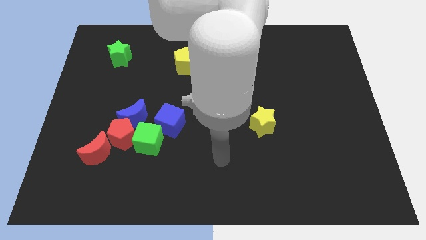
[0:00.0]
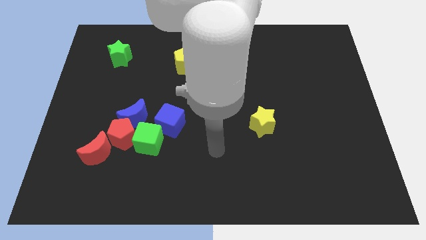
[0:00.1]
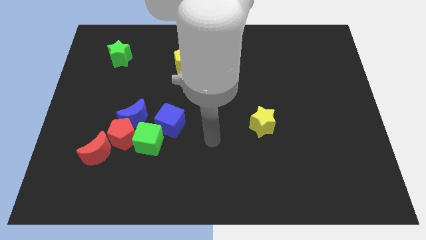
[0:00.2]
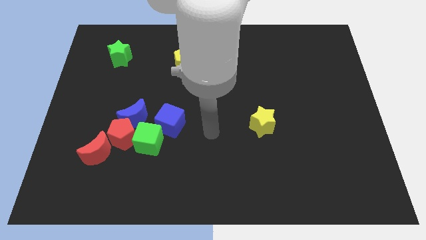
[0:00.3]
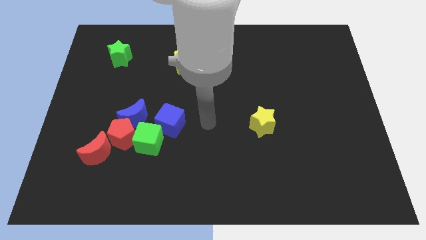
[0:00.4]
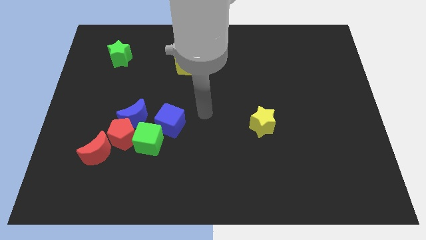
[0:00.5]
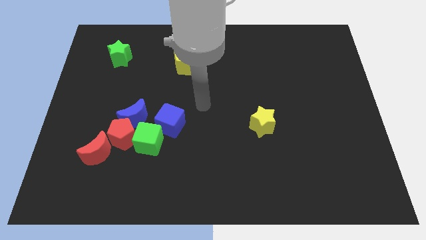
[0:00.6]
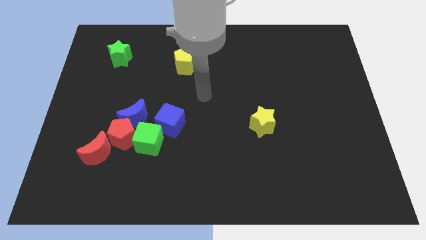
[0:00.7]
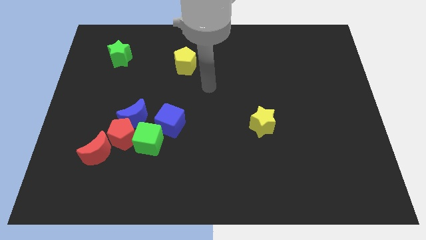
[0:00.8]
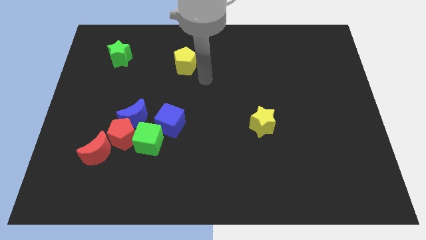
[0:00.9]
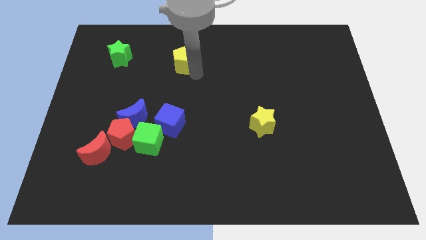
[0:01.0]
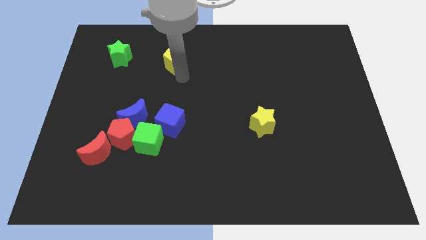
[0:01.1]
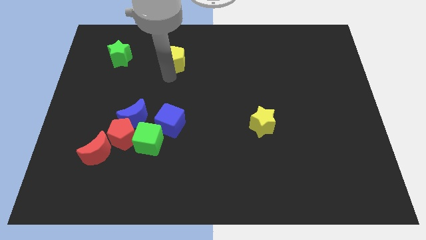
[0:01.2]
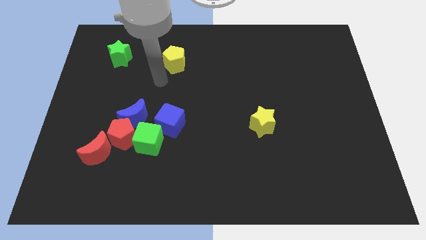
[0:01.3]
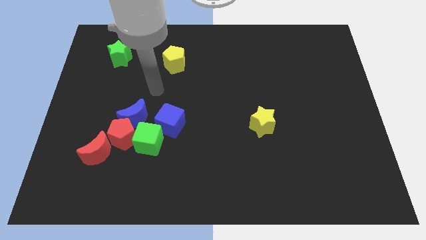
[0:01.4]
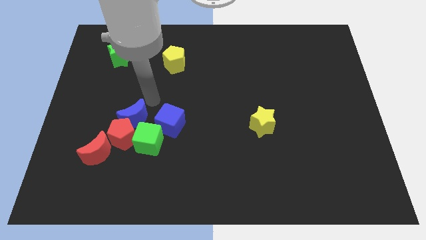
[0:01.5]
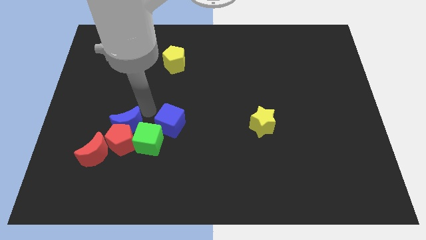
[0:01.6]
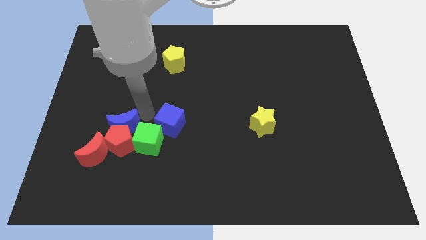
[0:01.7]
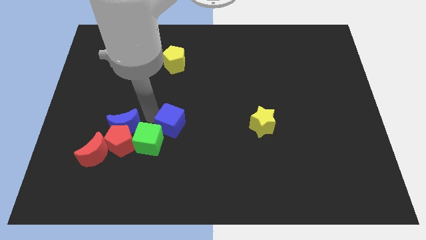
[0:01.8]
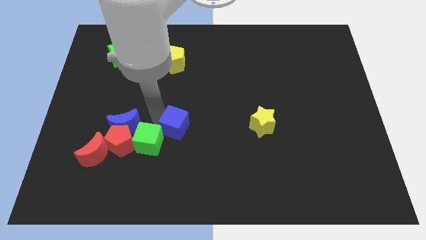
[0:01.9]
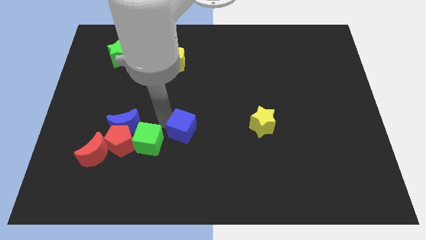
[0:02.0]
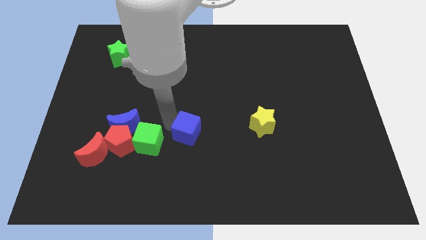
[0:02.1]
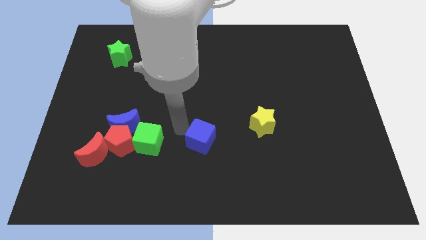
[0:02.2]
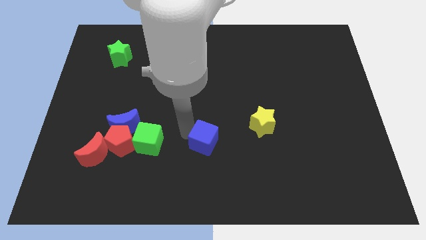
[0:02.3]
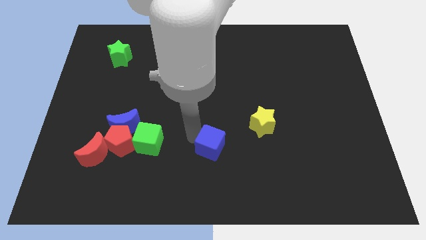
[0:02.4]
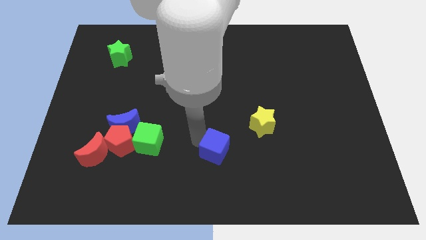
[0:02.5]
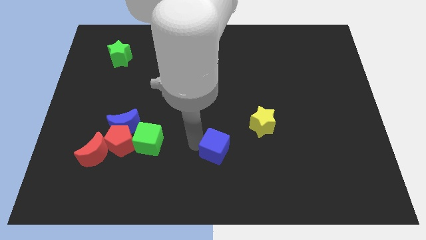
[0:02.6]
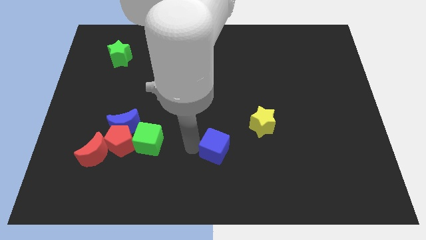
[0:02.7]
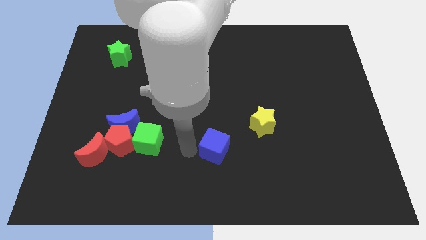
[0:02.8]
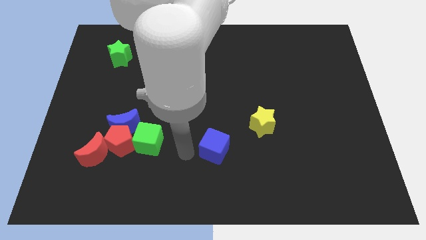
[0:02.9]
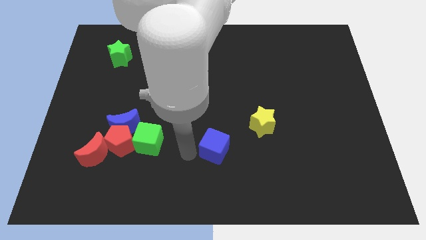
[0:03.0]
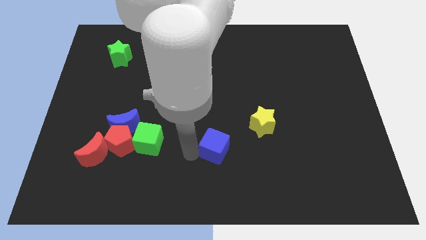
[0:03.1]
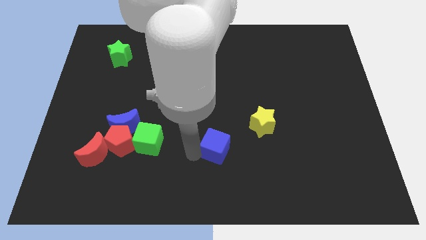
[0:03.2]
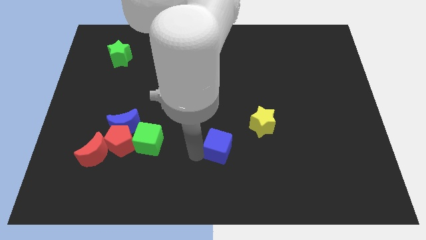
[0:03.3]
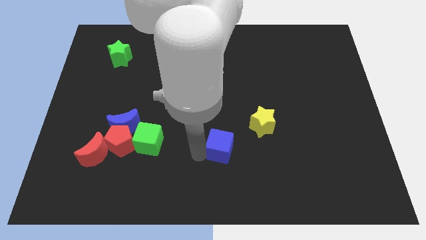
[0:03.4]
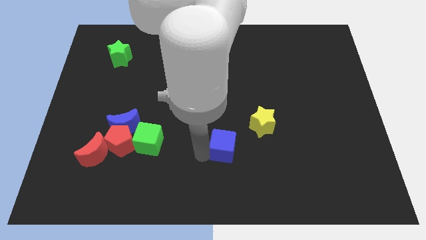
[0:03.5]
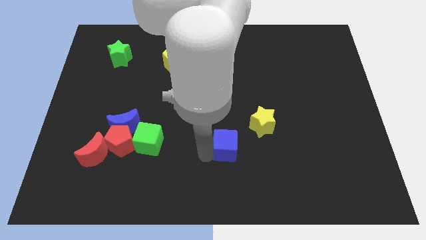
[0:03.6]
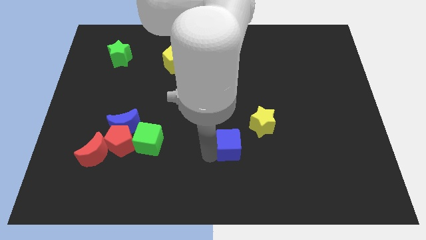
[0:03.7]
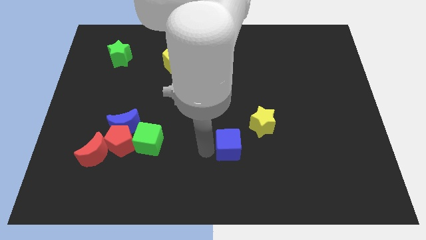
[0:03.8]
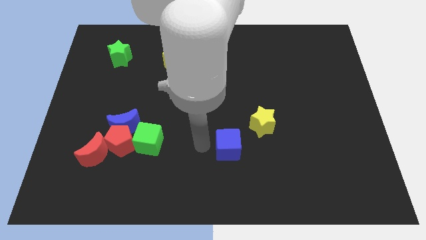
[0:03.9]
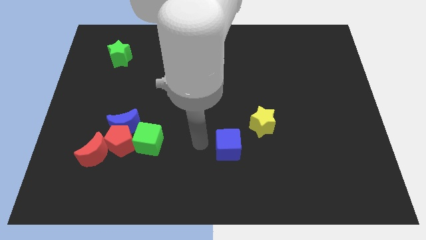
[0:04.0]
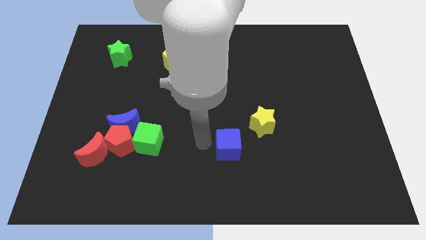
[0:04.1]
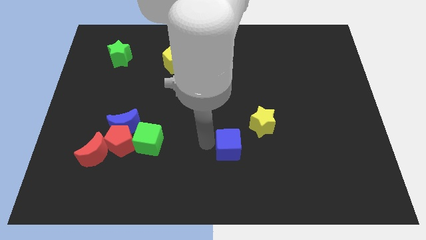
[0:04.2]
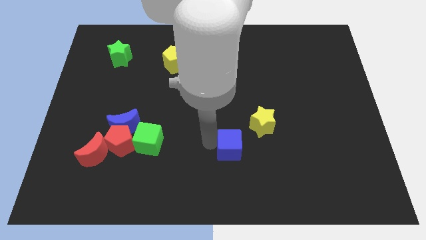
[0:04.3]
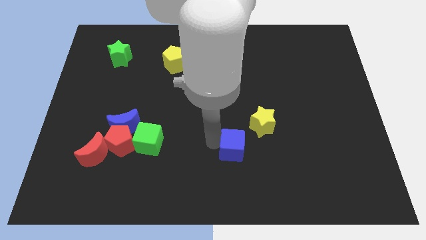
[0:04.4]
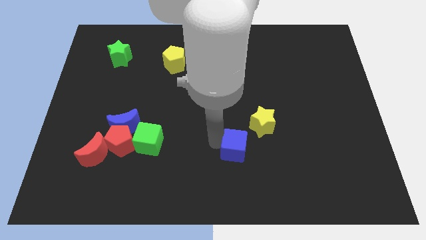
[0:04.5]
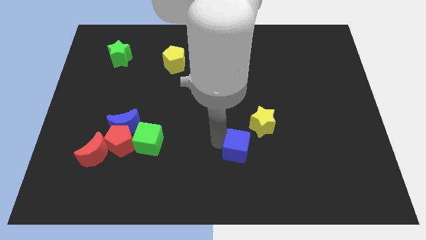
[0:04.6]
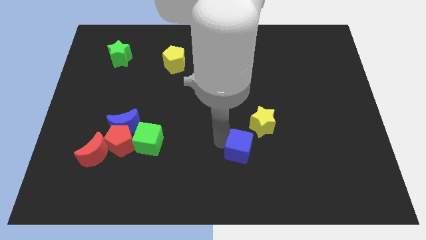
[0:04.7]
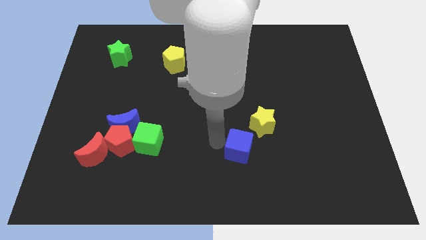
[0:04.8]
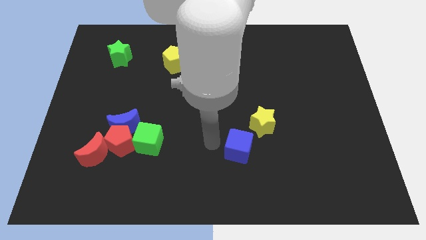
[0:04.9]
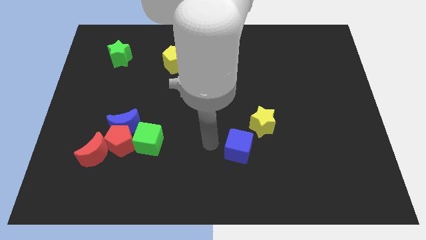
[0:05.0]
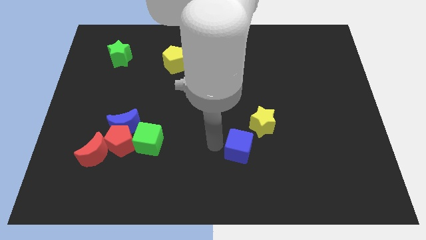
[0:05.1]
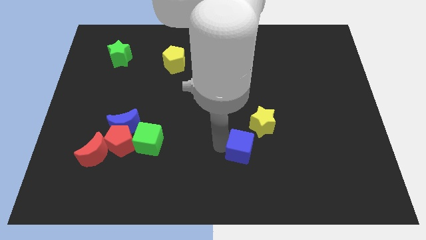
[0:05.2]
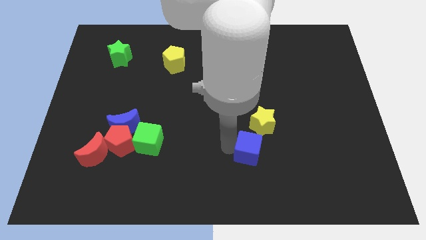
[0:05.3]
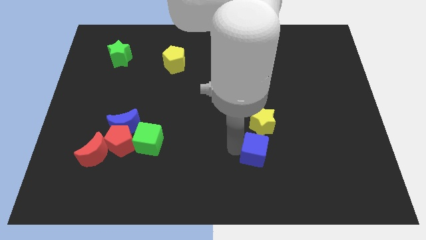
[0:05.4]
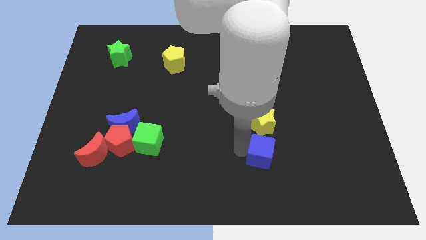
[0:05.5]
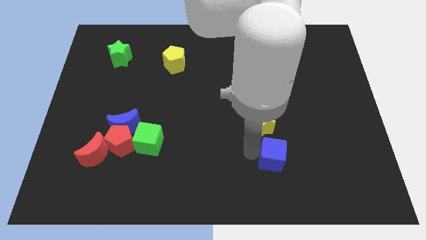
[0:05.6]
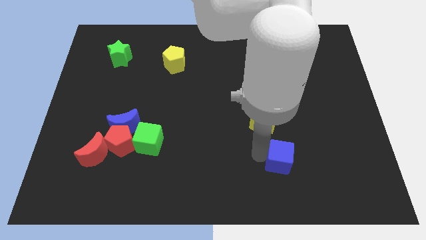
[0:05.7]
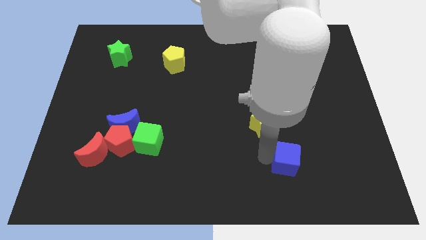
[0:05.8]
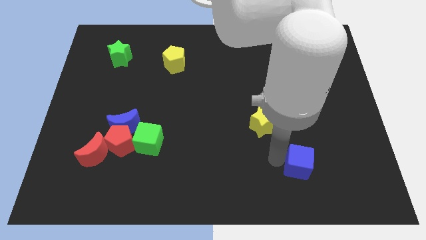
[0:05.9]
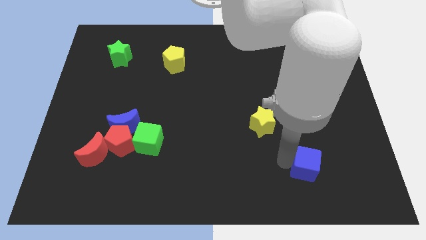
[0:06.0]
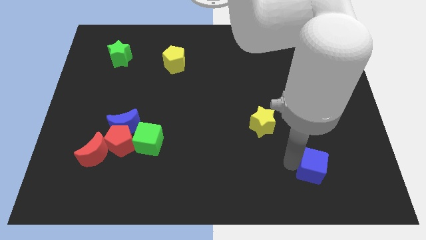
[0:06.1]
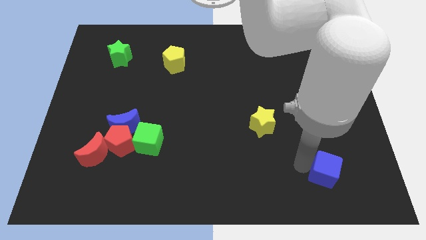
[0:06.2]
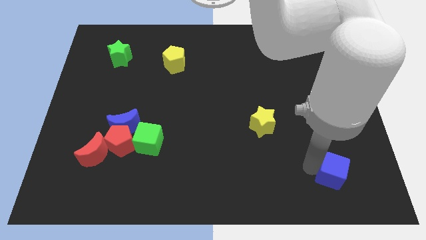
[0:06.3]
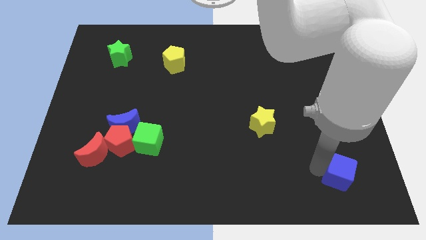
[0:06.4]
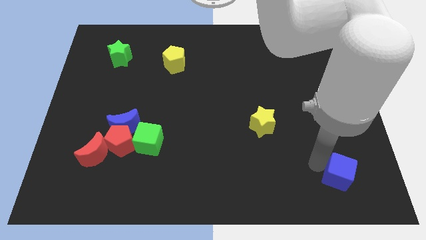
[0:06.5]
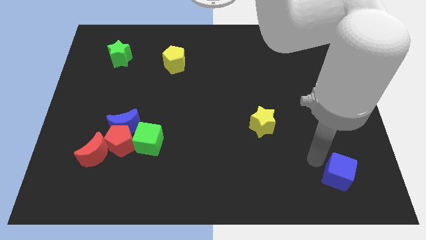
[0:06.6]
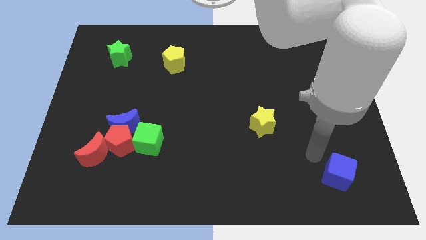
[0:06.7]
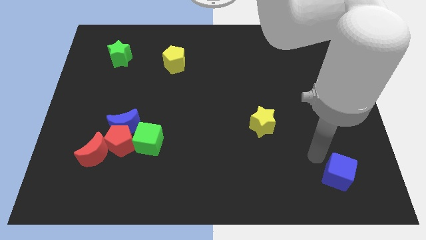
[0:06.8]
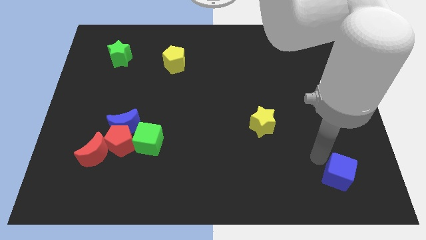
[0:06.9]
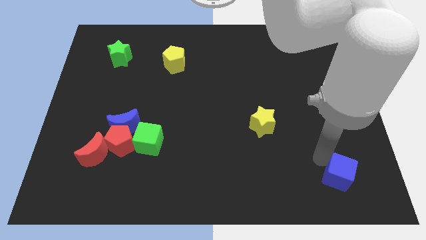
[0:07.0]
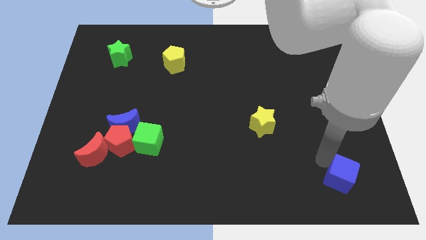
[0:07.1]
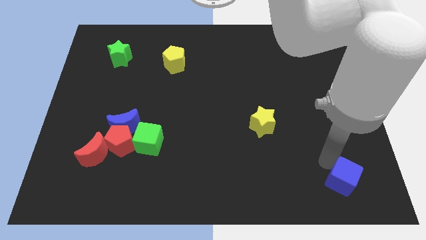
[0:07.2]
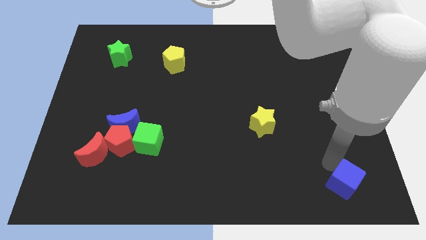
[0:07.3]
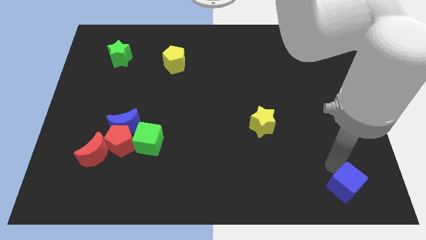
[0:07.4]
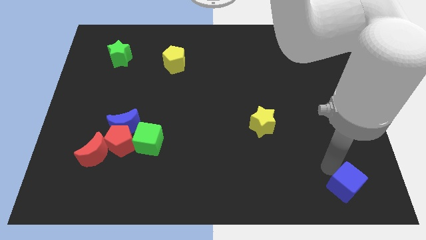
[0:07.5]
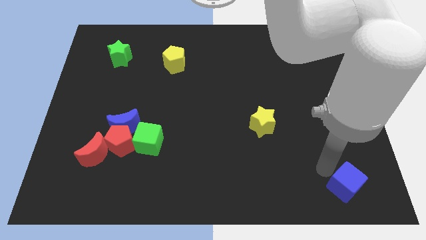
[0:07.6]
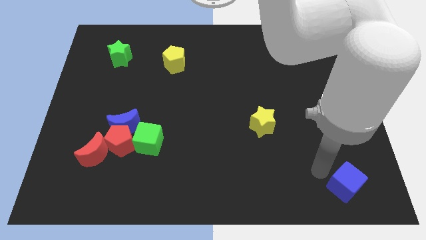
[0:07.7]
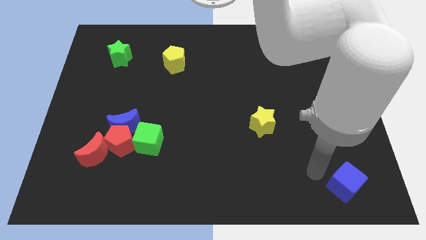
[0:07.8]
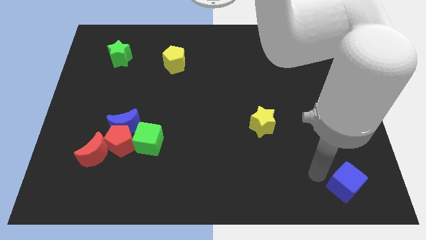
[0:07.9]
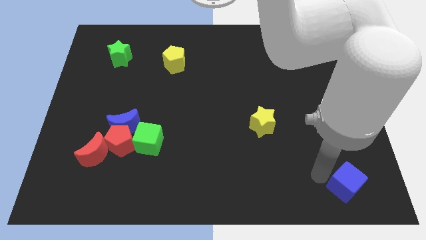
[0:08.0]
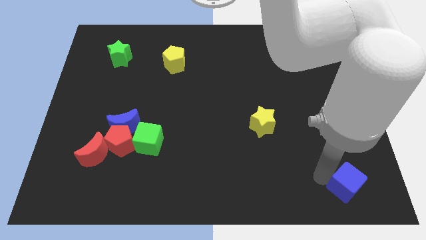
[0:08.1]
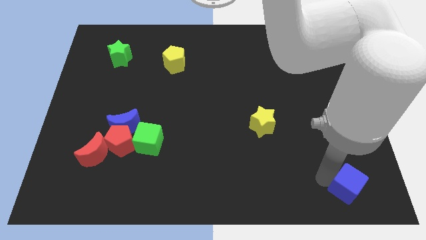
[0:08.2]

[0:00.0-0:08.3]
put the blue cube to the bottom right of the board
